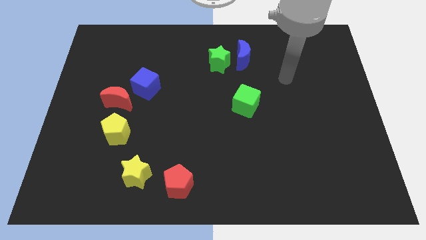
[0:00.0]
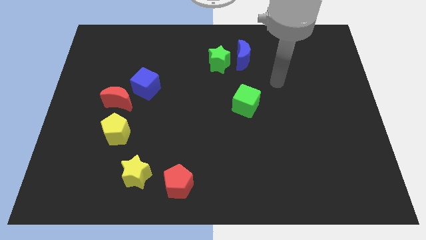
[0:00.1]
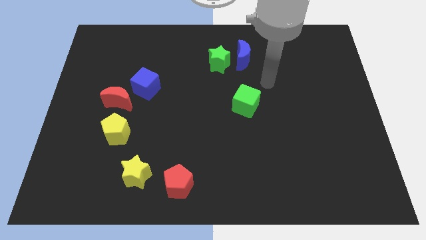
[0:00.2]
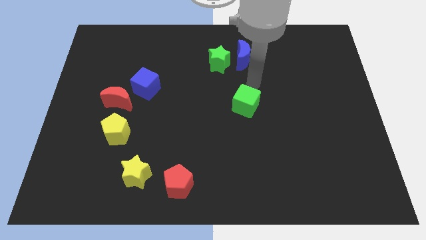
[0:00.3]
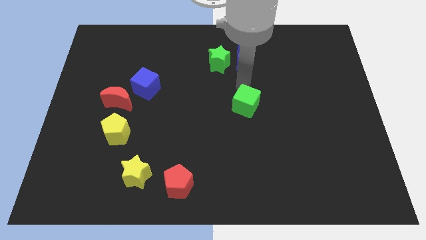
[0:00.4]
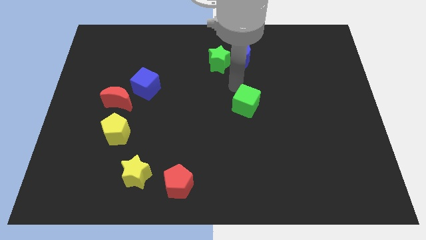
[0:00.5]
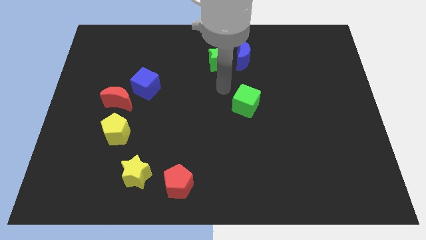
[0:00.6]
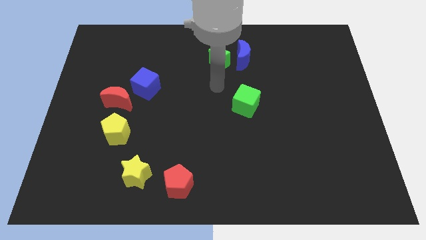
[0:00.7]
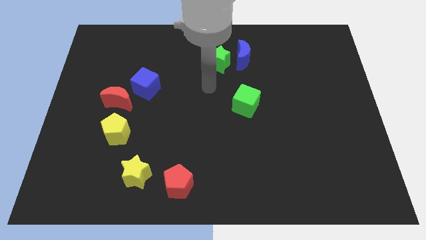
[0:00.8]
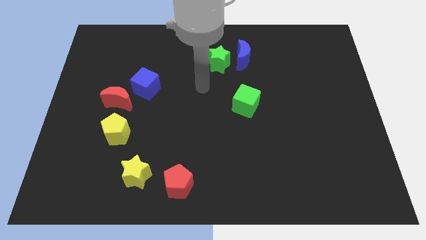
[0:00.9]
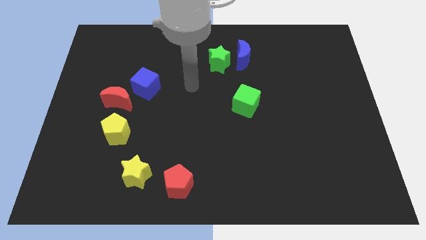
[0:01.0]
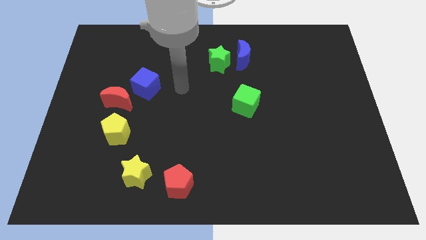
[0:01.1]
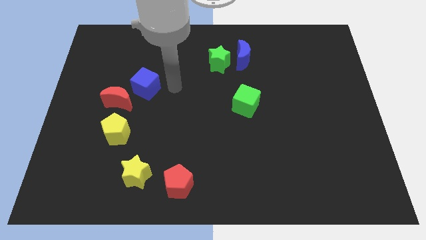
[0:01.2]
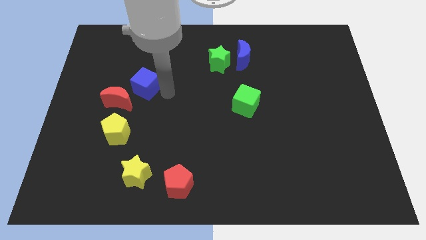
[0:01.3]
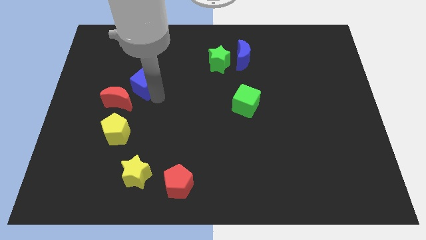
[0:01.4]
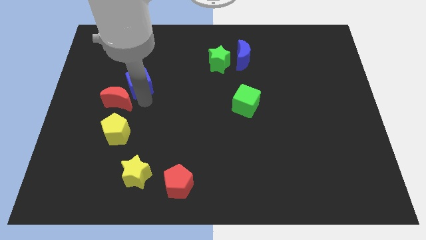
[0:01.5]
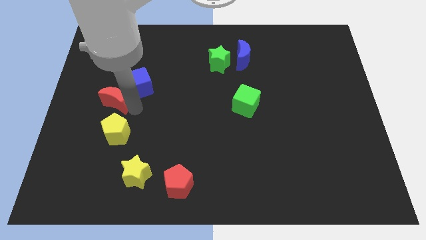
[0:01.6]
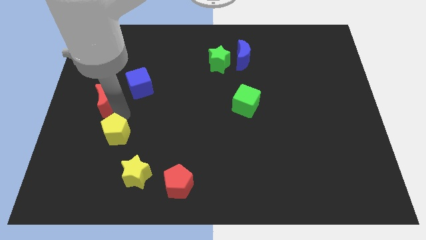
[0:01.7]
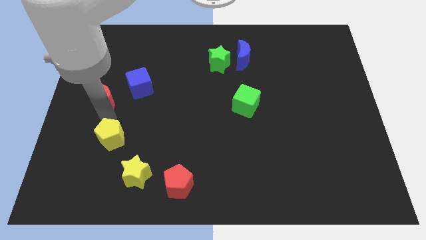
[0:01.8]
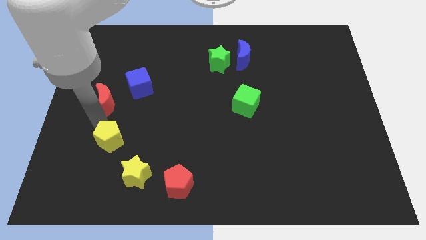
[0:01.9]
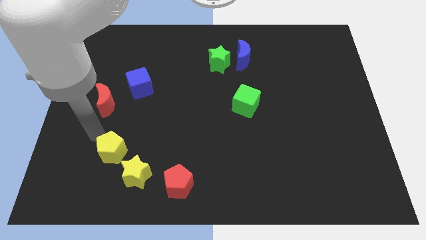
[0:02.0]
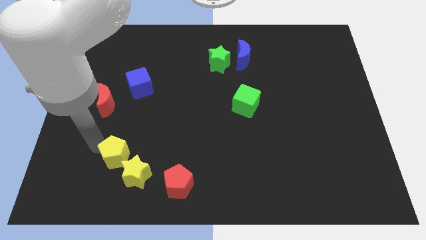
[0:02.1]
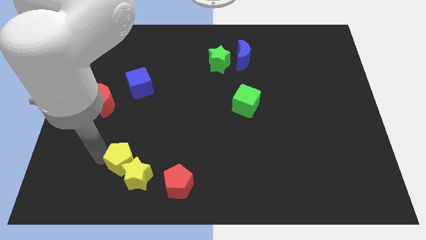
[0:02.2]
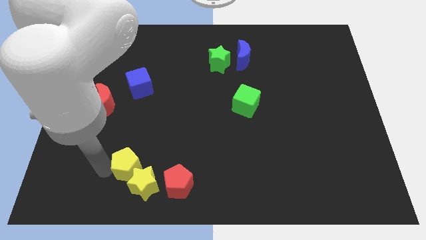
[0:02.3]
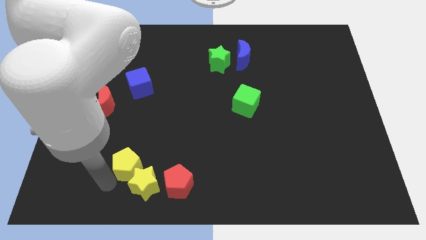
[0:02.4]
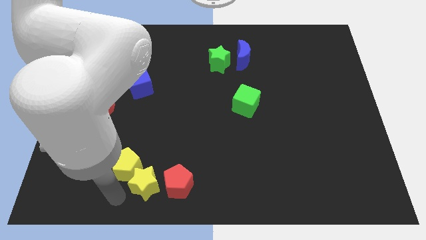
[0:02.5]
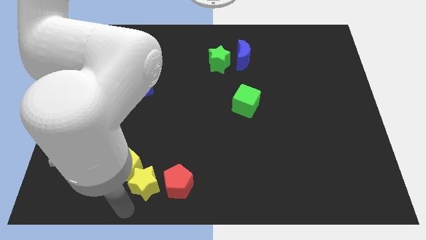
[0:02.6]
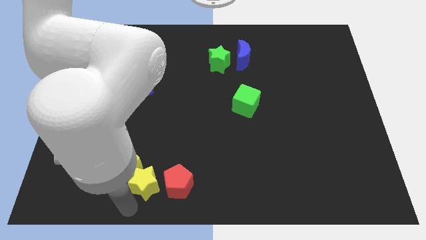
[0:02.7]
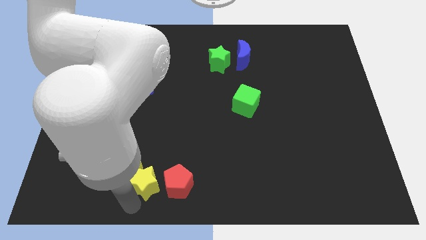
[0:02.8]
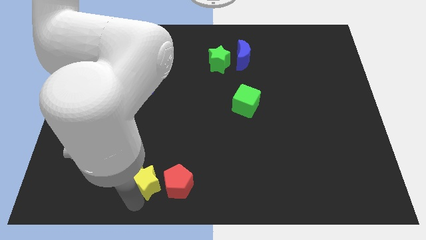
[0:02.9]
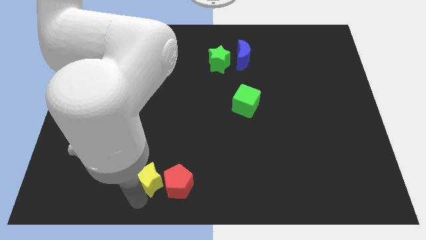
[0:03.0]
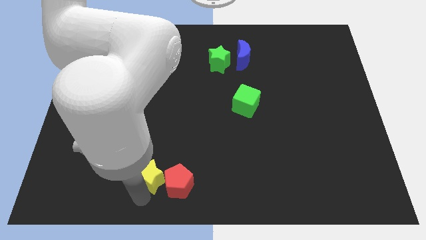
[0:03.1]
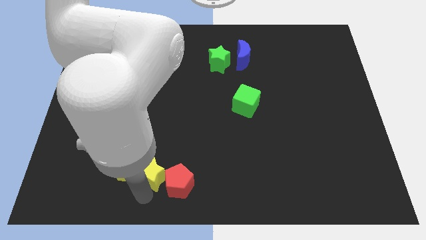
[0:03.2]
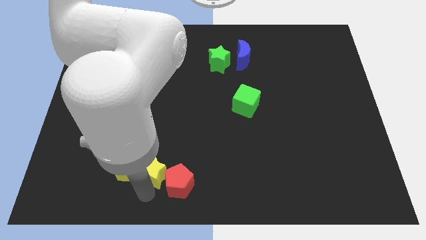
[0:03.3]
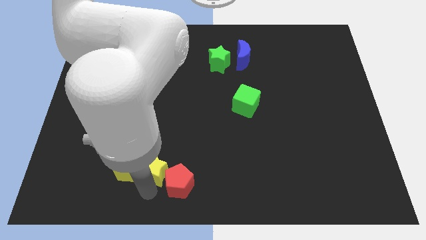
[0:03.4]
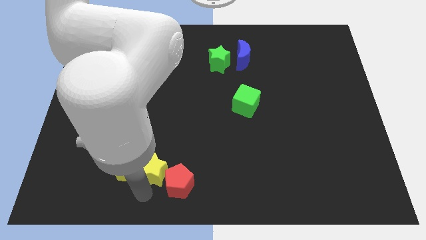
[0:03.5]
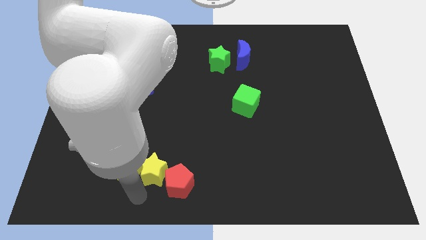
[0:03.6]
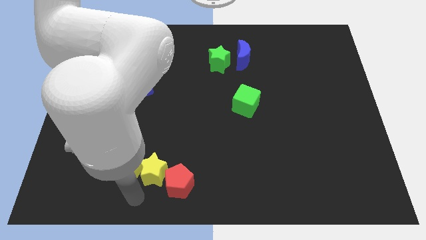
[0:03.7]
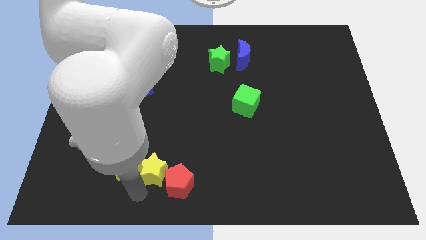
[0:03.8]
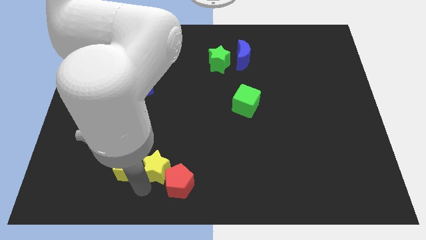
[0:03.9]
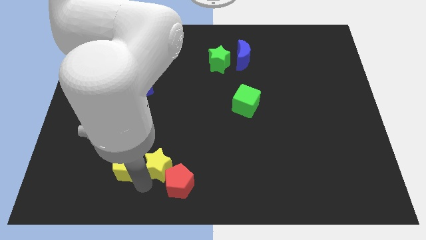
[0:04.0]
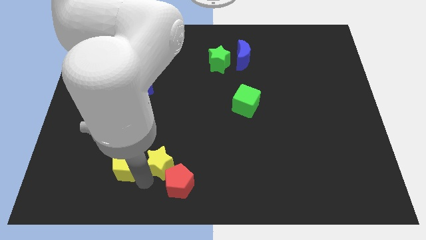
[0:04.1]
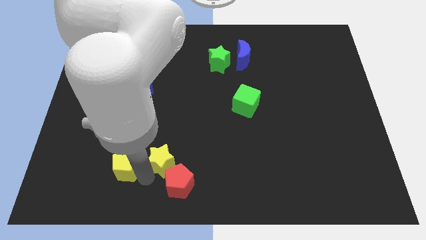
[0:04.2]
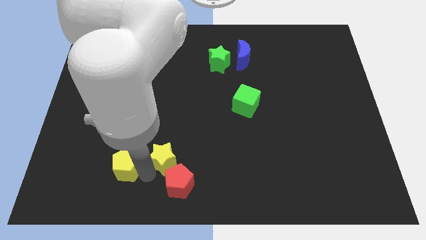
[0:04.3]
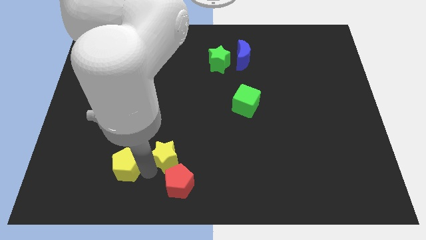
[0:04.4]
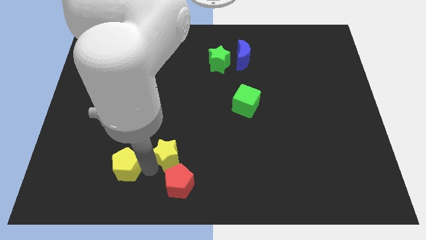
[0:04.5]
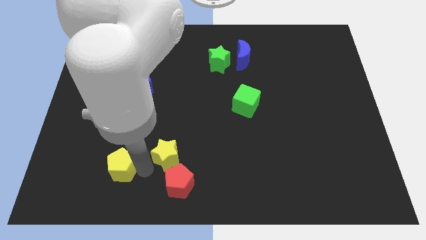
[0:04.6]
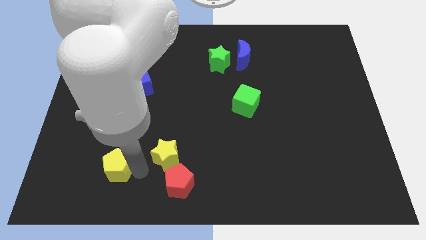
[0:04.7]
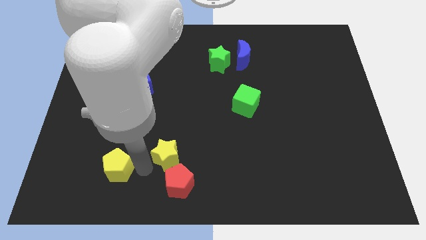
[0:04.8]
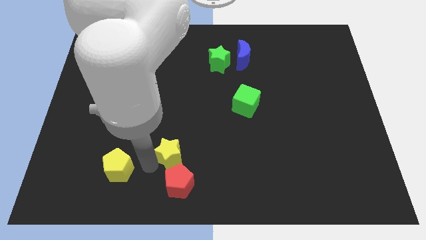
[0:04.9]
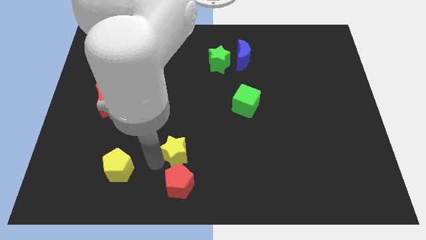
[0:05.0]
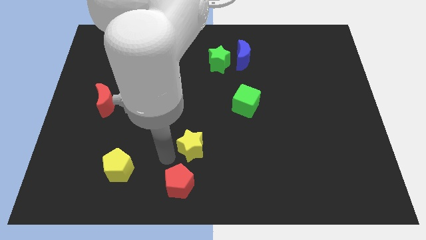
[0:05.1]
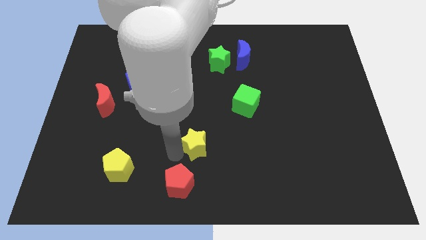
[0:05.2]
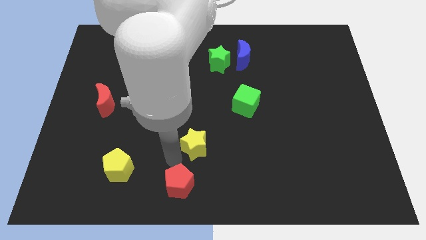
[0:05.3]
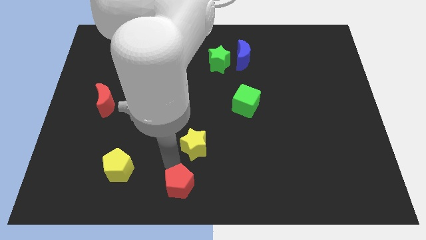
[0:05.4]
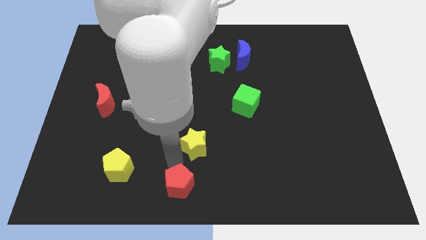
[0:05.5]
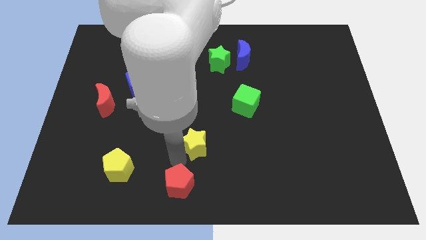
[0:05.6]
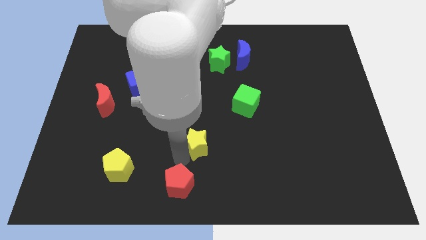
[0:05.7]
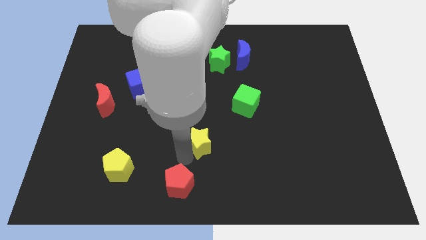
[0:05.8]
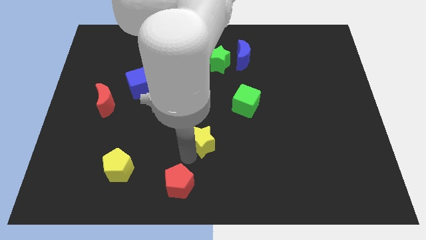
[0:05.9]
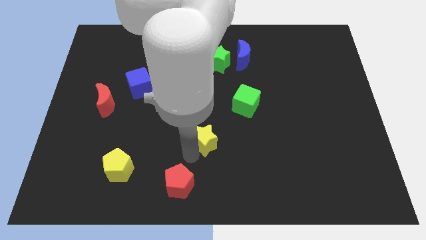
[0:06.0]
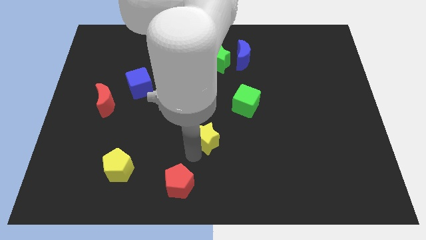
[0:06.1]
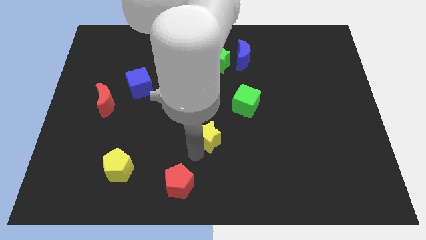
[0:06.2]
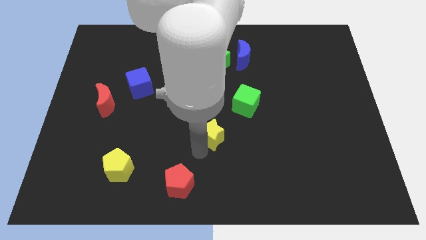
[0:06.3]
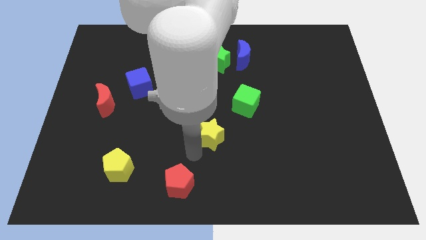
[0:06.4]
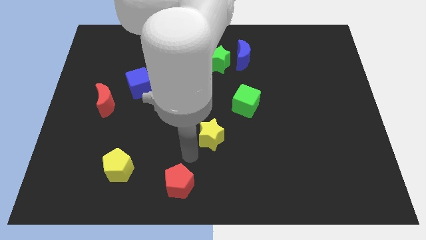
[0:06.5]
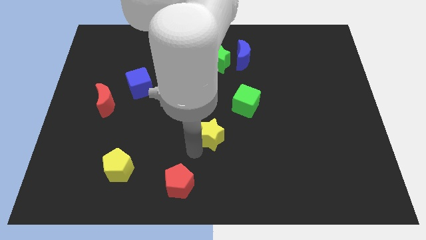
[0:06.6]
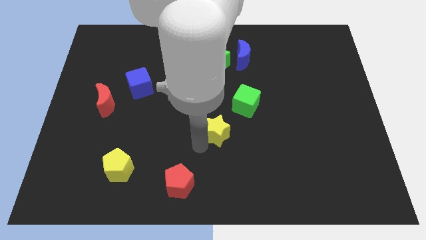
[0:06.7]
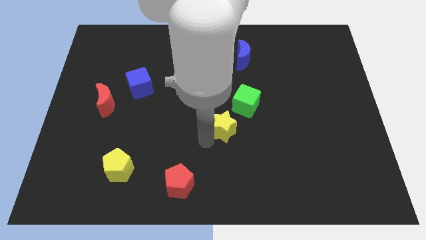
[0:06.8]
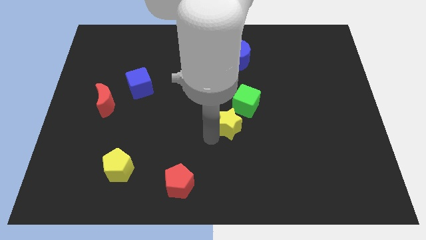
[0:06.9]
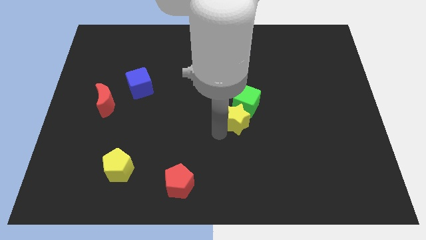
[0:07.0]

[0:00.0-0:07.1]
push the yellow star next to the green cube

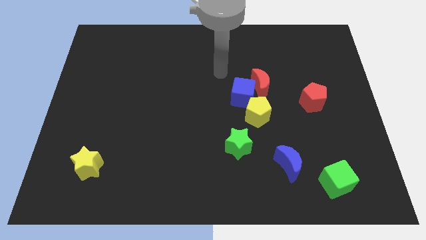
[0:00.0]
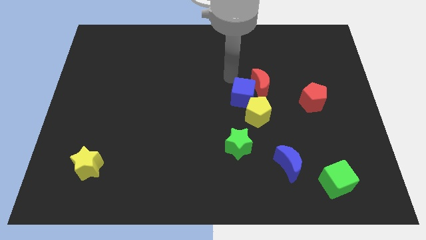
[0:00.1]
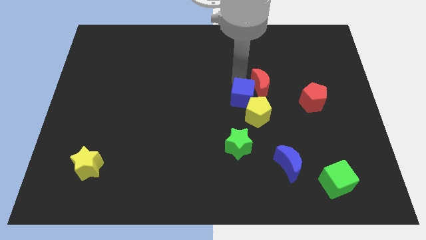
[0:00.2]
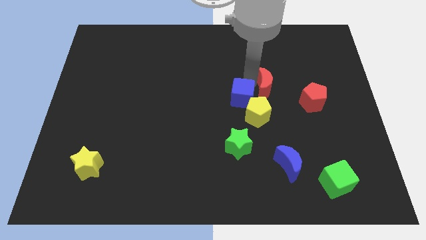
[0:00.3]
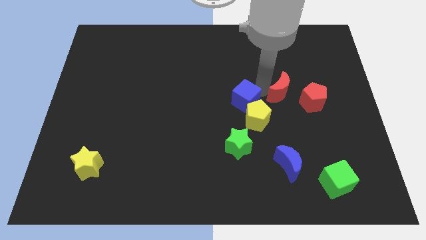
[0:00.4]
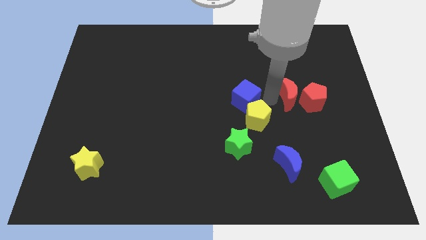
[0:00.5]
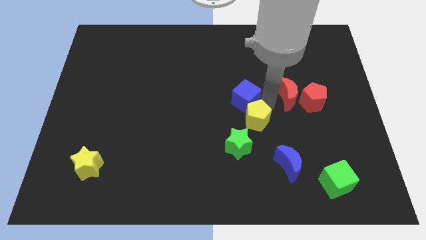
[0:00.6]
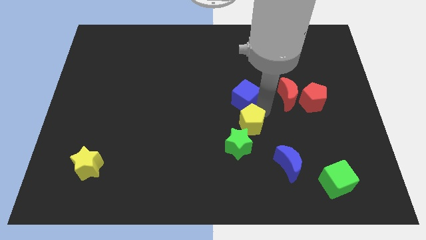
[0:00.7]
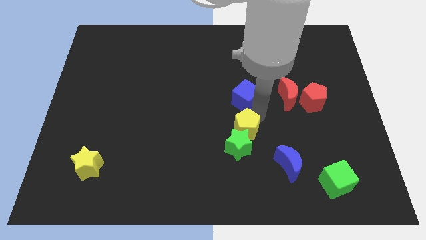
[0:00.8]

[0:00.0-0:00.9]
push the yellow pentagon to the green star
